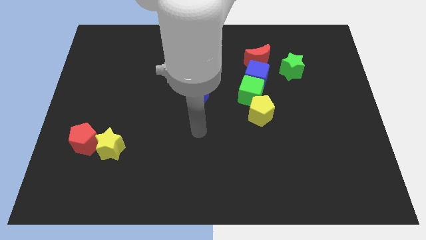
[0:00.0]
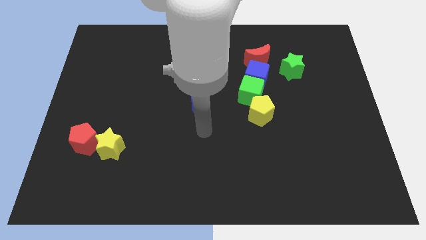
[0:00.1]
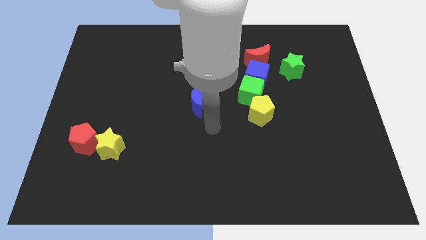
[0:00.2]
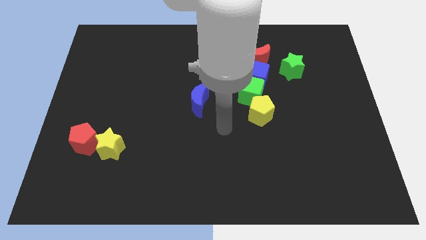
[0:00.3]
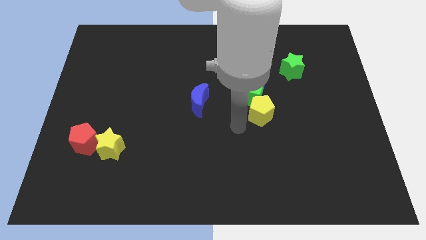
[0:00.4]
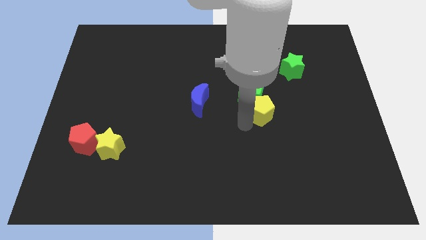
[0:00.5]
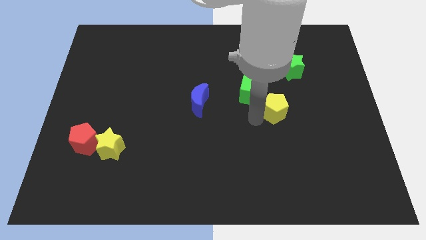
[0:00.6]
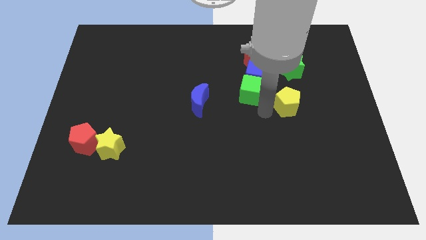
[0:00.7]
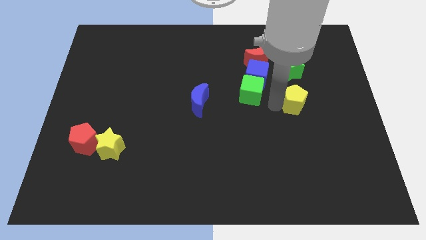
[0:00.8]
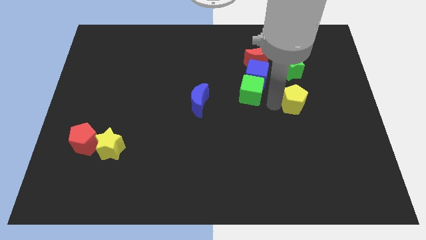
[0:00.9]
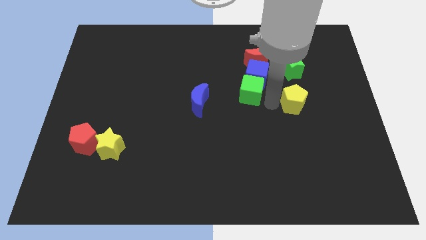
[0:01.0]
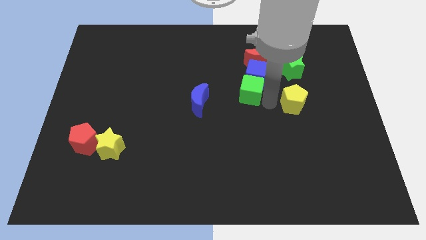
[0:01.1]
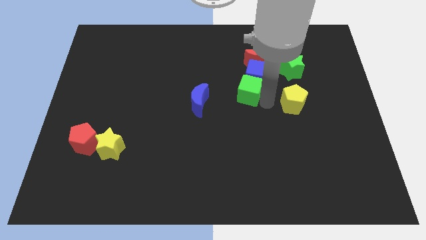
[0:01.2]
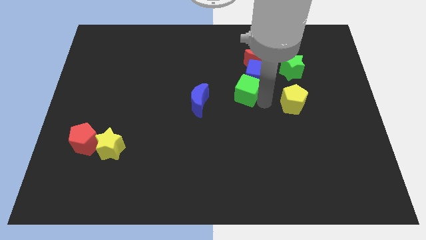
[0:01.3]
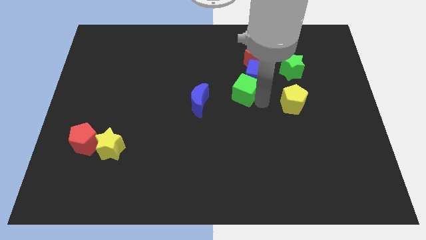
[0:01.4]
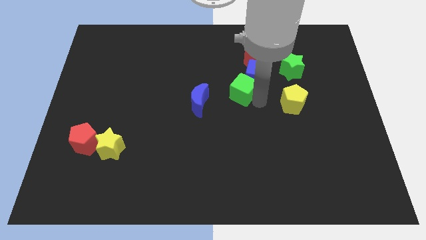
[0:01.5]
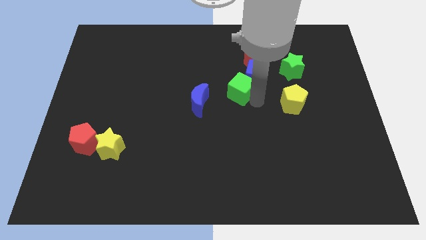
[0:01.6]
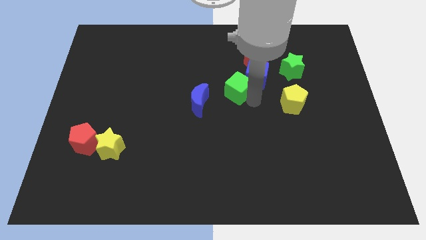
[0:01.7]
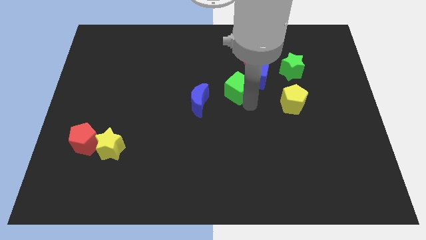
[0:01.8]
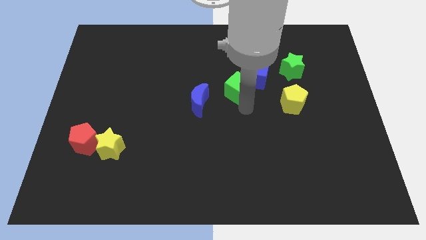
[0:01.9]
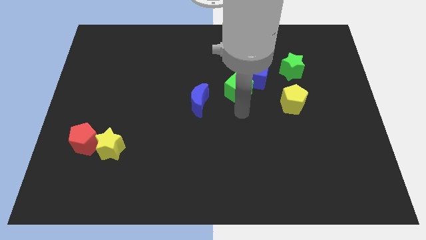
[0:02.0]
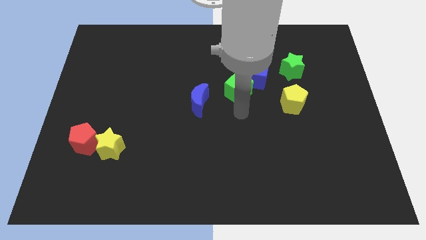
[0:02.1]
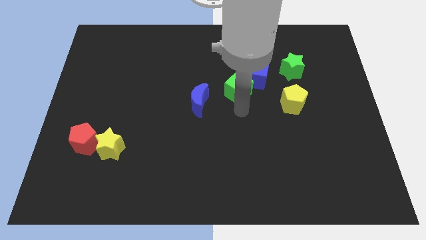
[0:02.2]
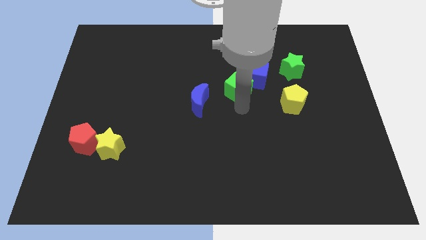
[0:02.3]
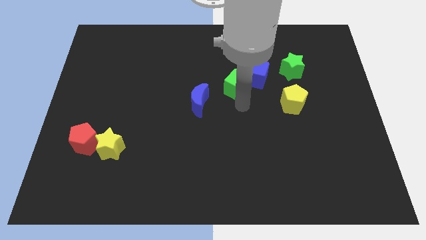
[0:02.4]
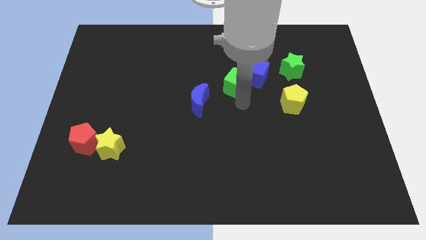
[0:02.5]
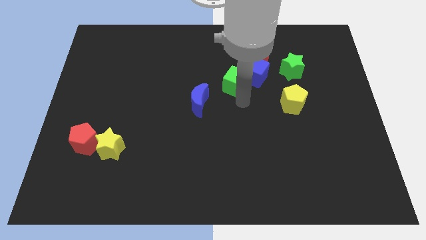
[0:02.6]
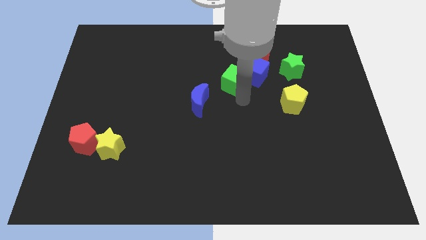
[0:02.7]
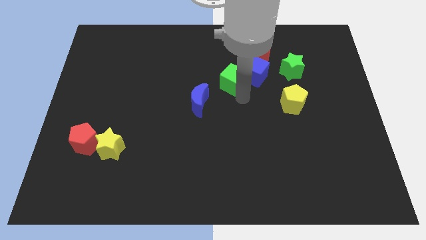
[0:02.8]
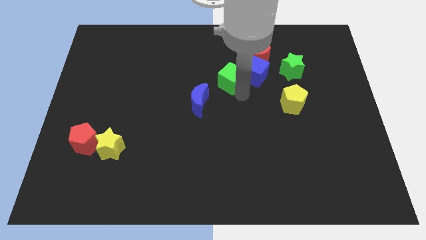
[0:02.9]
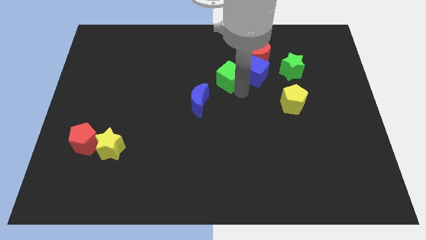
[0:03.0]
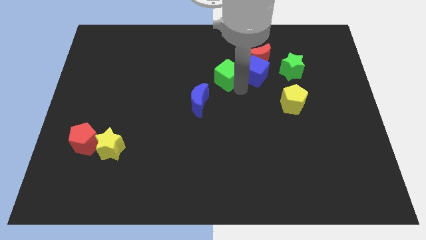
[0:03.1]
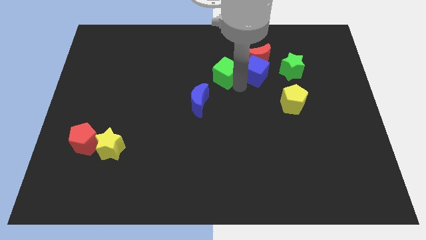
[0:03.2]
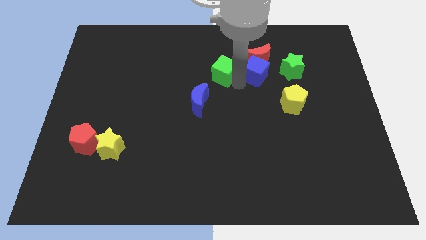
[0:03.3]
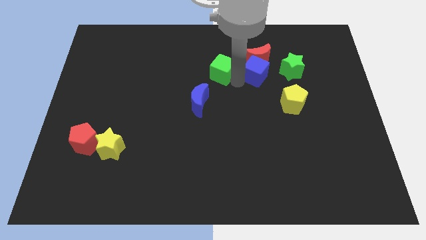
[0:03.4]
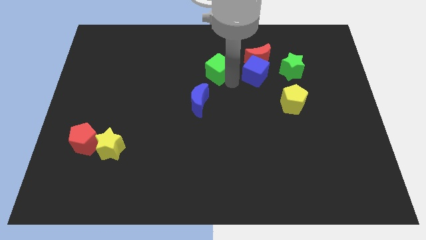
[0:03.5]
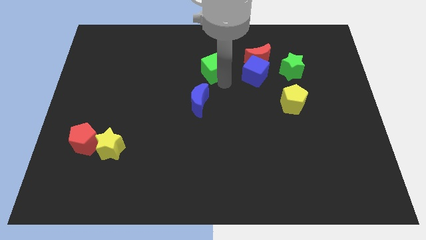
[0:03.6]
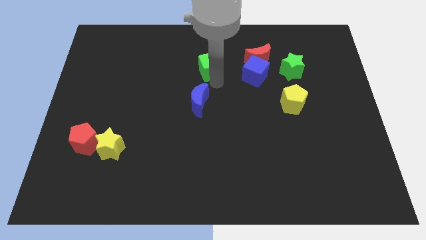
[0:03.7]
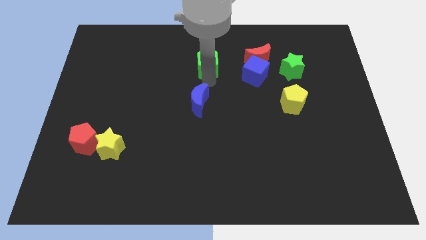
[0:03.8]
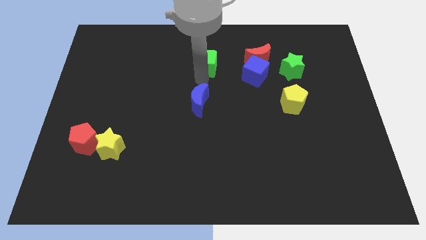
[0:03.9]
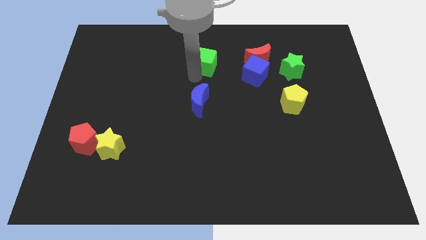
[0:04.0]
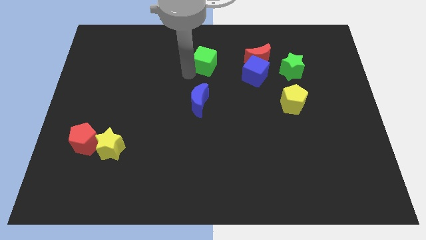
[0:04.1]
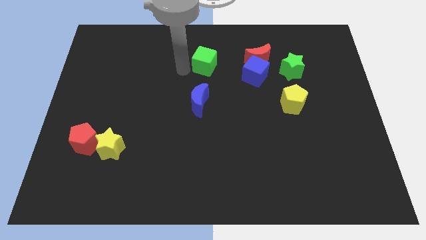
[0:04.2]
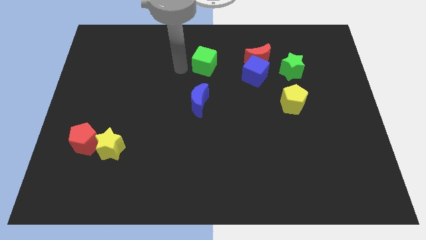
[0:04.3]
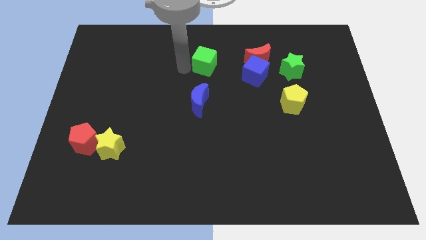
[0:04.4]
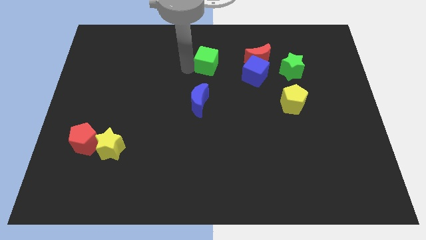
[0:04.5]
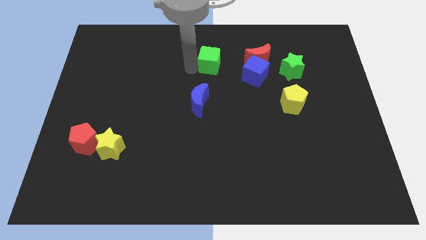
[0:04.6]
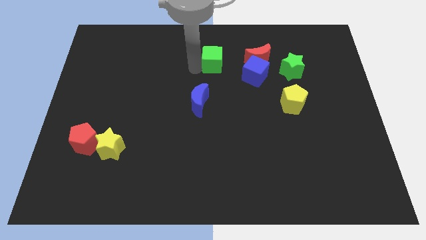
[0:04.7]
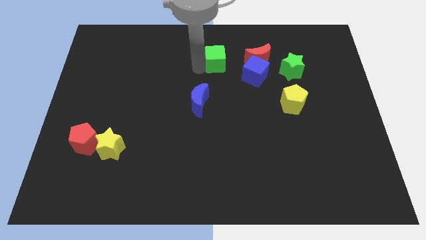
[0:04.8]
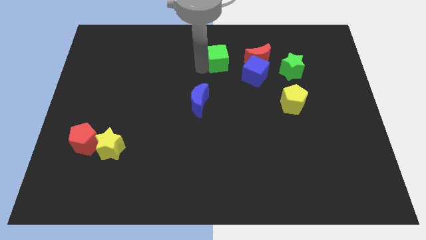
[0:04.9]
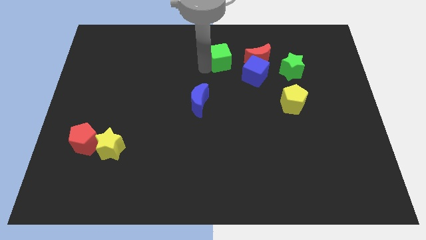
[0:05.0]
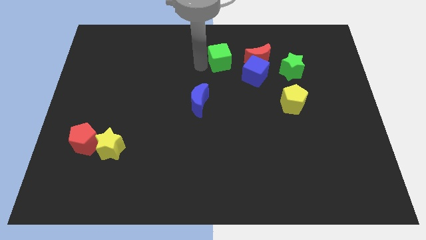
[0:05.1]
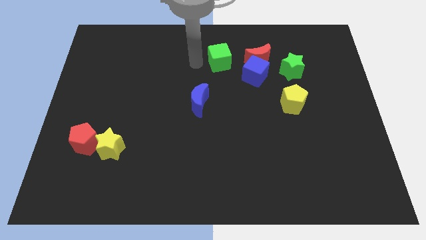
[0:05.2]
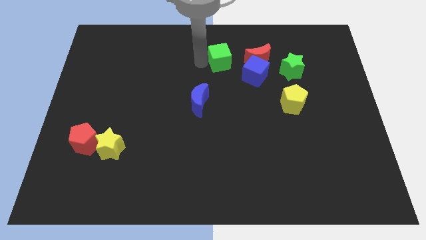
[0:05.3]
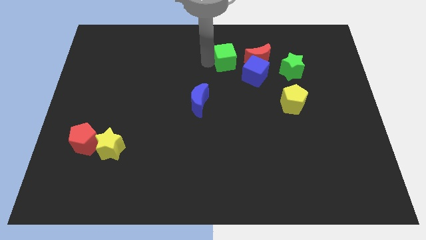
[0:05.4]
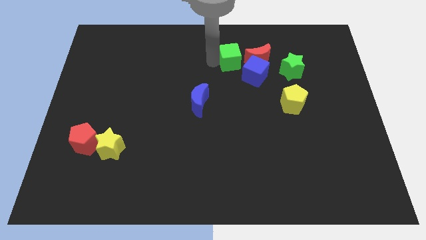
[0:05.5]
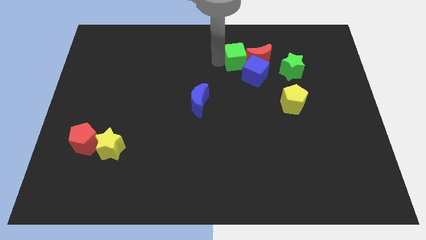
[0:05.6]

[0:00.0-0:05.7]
push the green cube close to the red moon
